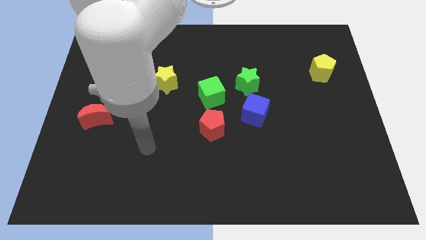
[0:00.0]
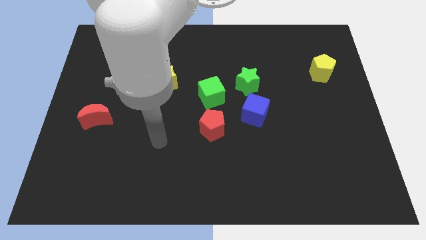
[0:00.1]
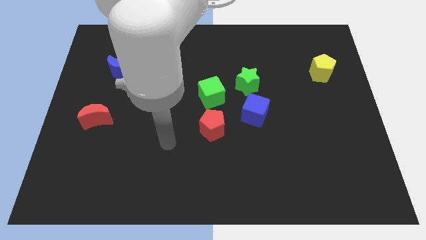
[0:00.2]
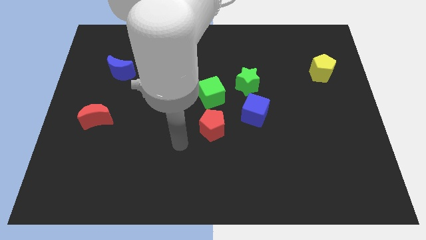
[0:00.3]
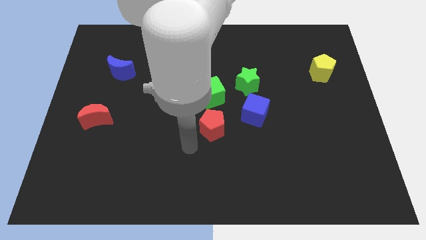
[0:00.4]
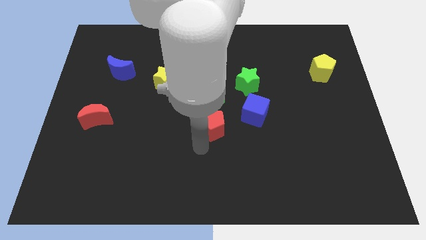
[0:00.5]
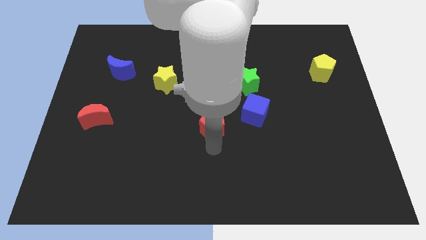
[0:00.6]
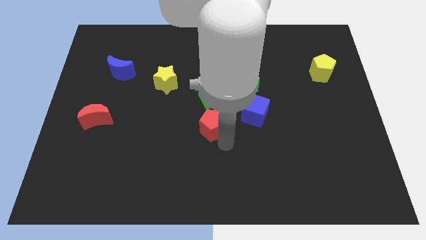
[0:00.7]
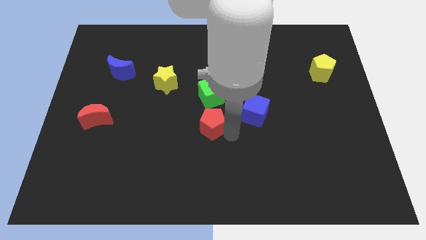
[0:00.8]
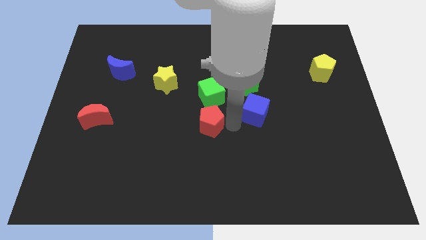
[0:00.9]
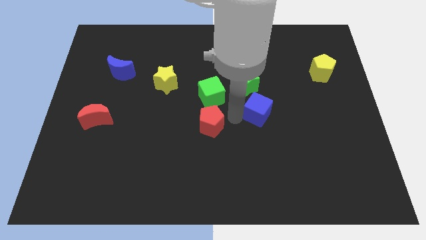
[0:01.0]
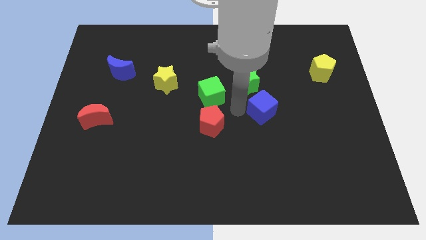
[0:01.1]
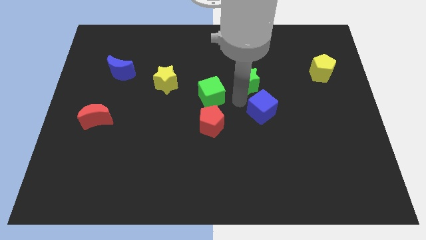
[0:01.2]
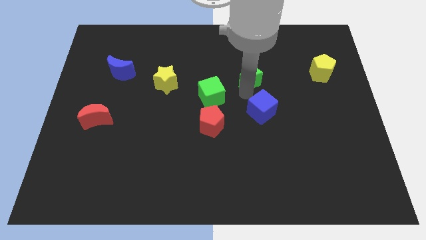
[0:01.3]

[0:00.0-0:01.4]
separate the blue cube from the green star

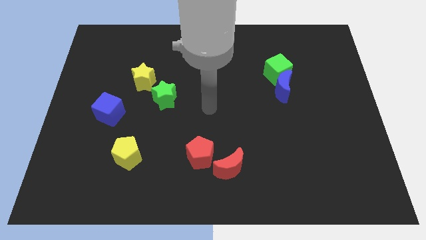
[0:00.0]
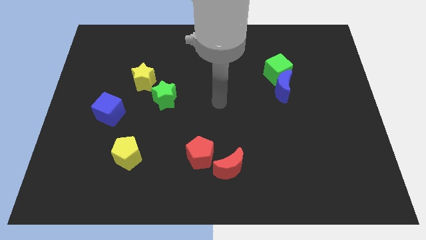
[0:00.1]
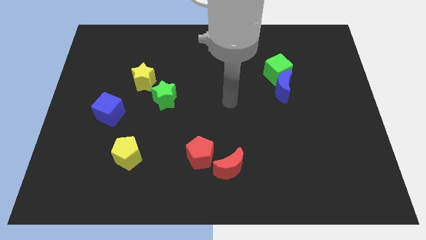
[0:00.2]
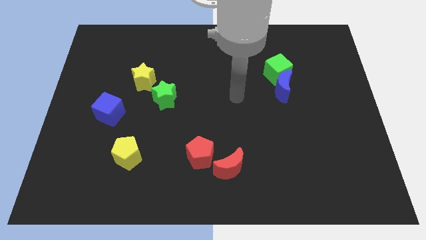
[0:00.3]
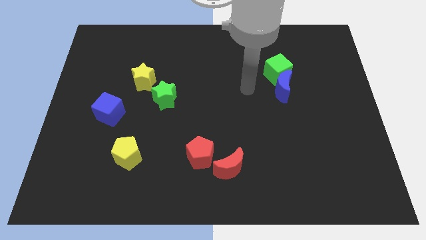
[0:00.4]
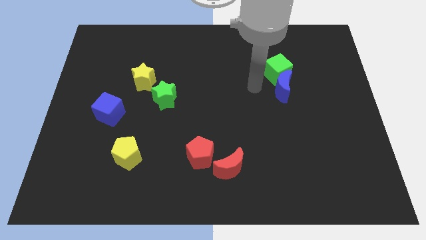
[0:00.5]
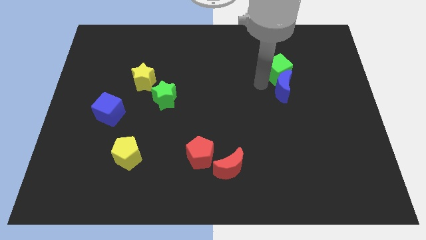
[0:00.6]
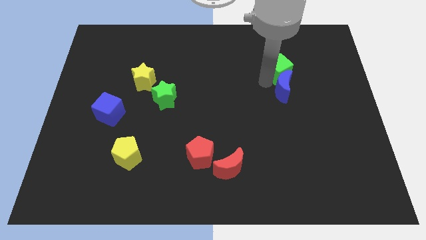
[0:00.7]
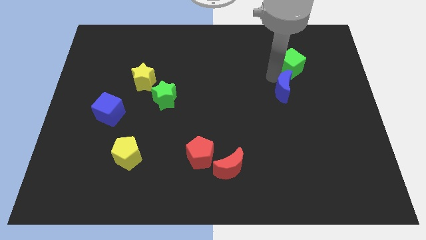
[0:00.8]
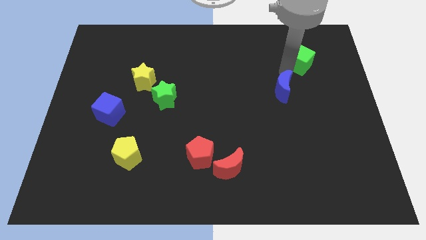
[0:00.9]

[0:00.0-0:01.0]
move the blue moon away from the green cube

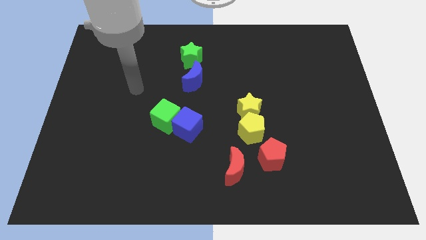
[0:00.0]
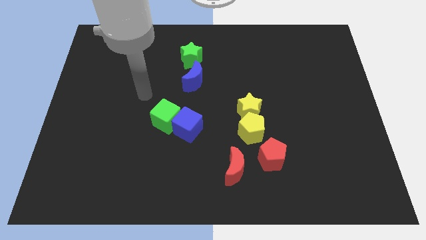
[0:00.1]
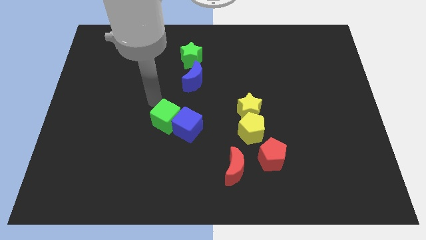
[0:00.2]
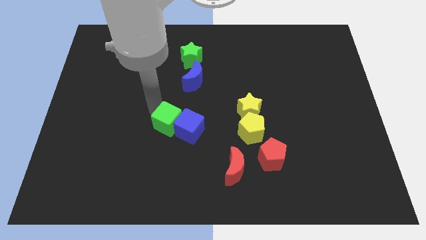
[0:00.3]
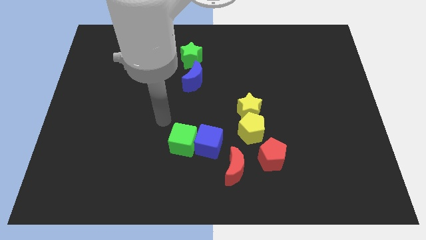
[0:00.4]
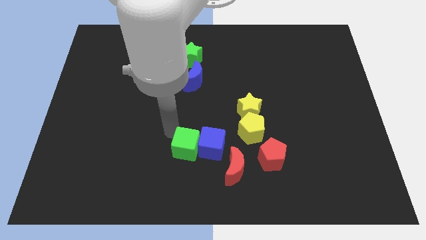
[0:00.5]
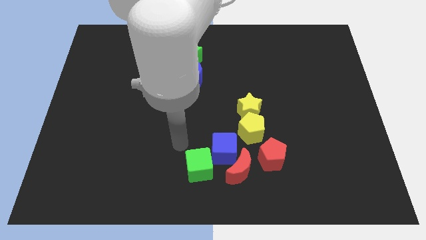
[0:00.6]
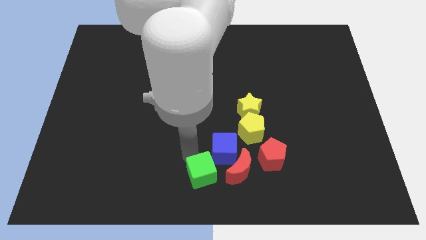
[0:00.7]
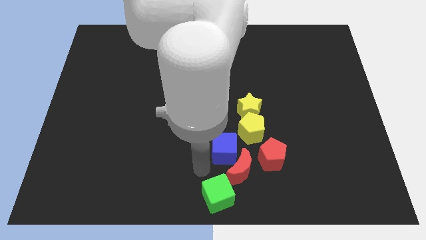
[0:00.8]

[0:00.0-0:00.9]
pull the blue cube apart from the green cube

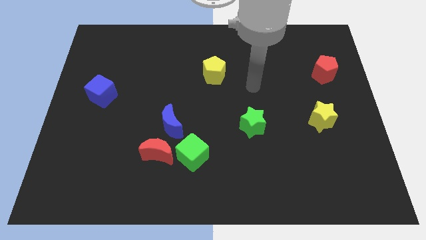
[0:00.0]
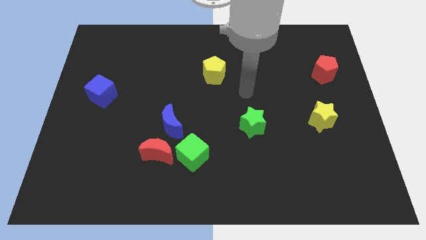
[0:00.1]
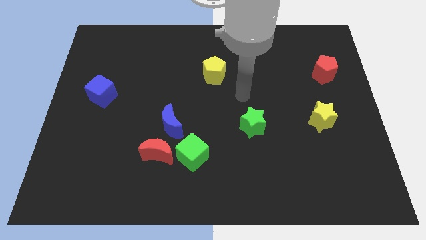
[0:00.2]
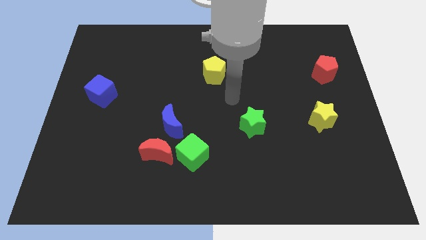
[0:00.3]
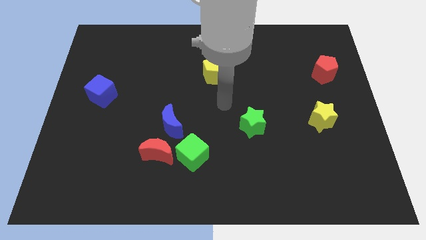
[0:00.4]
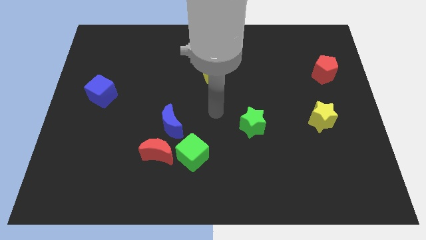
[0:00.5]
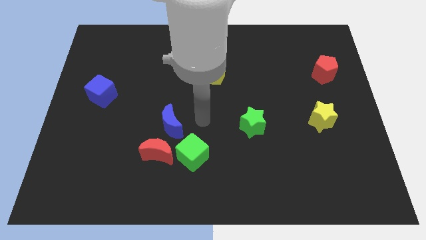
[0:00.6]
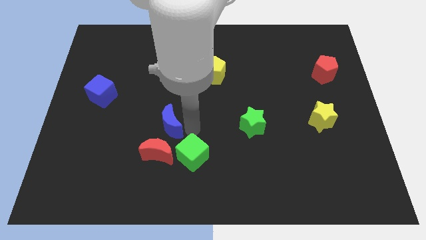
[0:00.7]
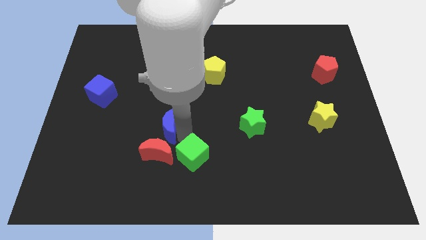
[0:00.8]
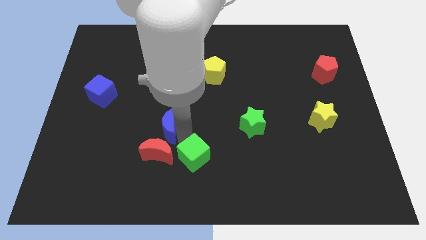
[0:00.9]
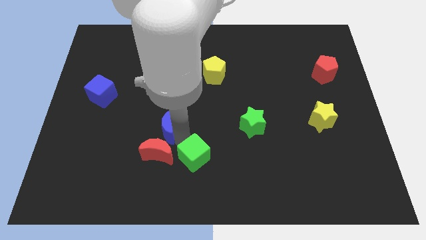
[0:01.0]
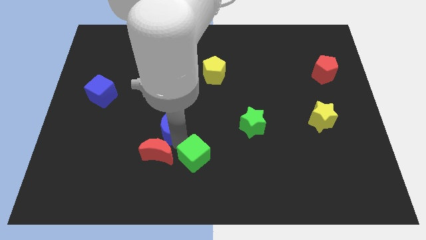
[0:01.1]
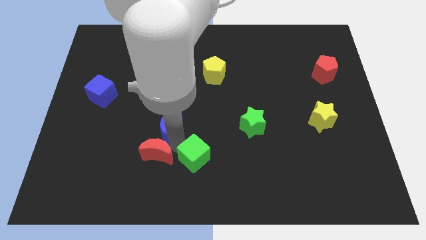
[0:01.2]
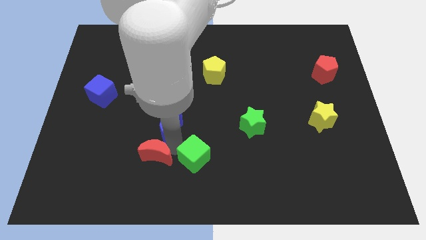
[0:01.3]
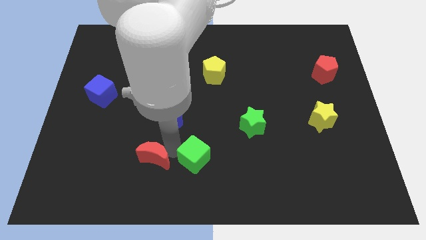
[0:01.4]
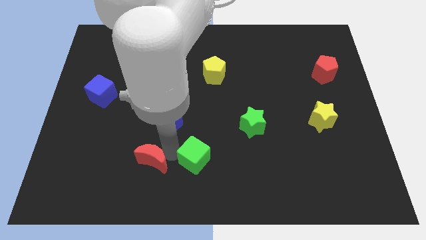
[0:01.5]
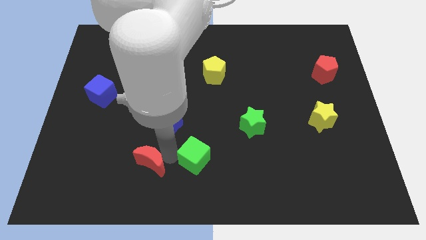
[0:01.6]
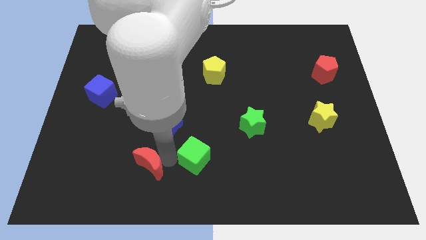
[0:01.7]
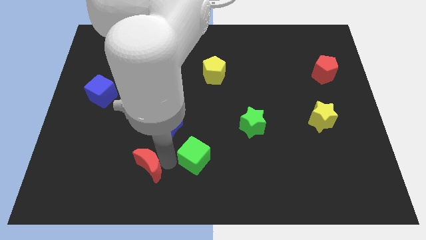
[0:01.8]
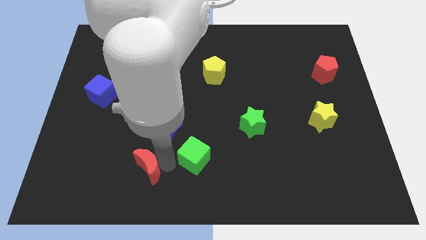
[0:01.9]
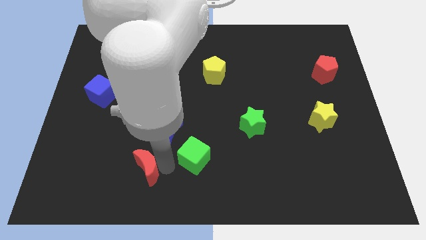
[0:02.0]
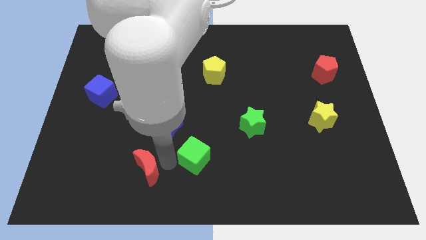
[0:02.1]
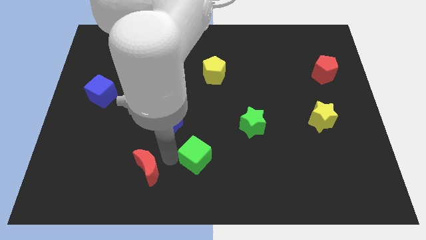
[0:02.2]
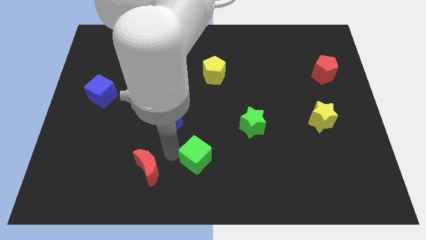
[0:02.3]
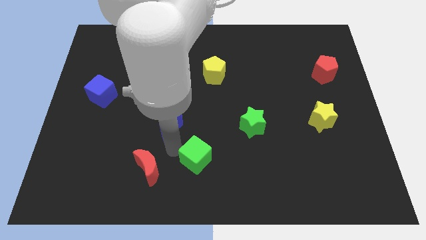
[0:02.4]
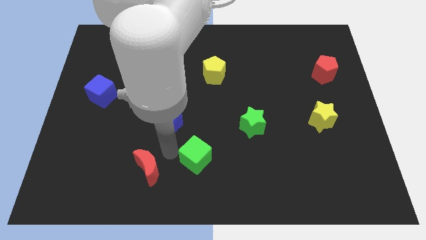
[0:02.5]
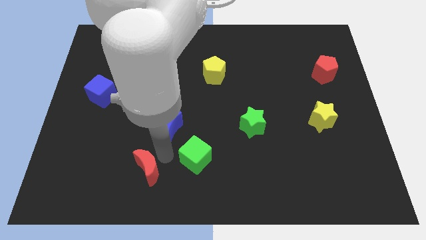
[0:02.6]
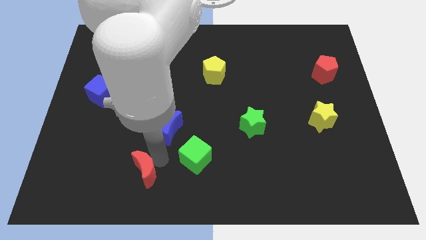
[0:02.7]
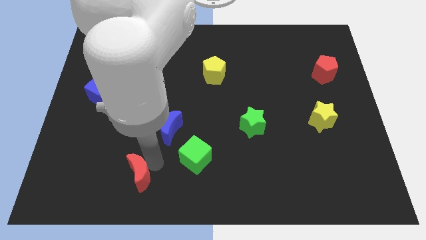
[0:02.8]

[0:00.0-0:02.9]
pull the red moon apart from the green cube and blue moon

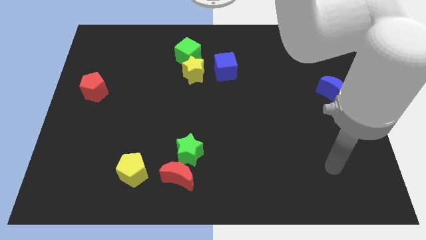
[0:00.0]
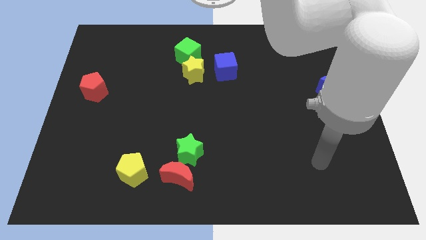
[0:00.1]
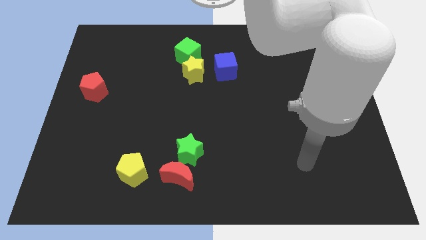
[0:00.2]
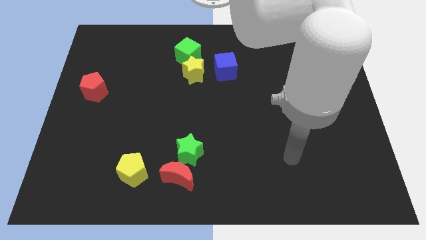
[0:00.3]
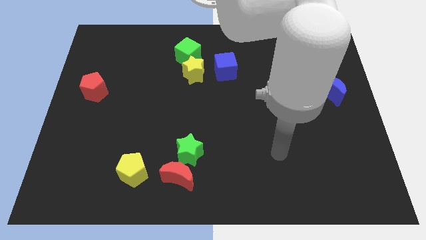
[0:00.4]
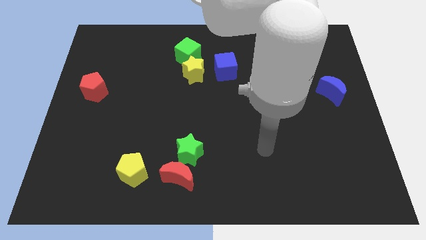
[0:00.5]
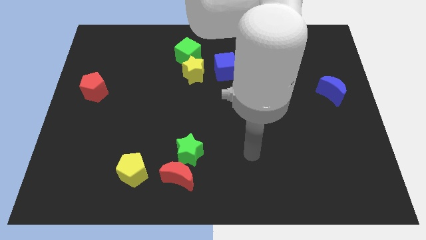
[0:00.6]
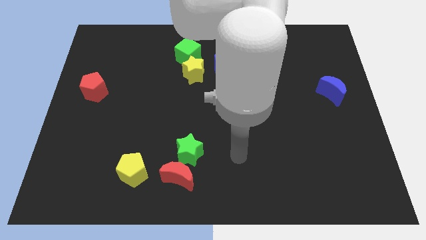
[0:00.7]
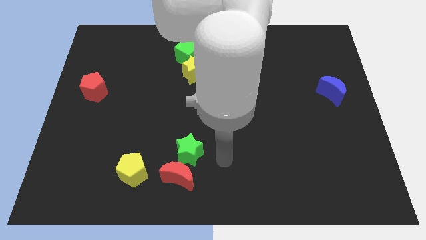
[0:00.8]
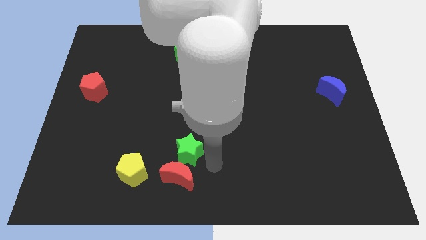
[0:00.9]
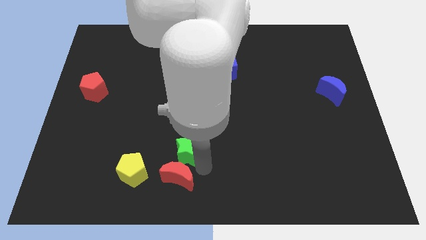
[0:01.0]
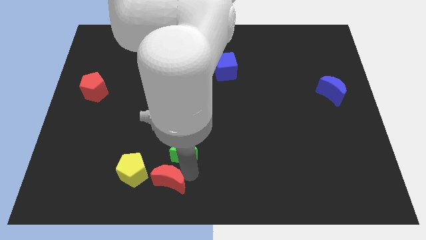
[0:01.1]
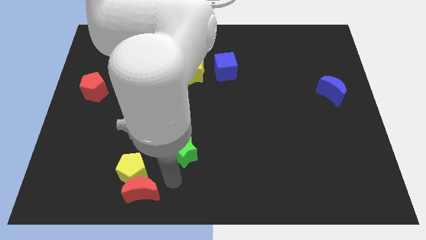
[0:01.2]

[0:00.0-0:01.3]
move the green star away from the red moon

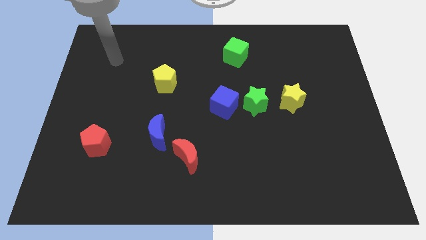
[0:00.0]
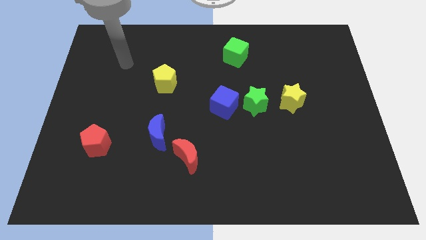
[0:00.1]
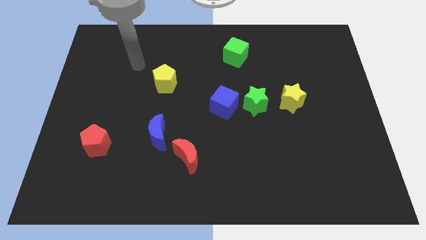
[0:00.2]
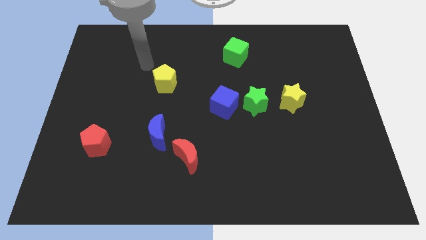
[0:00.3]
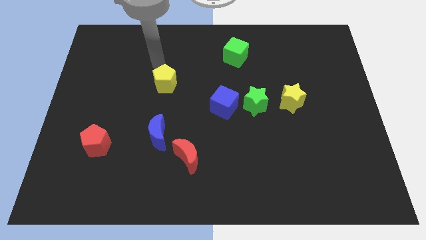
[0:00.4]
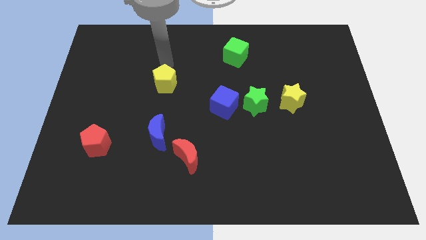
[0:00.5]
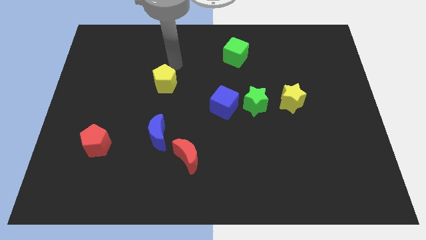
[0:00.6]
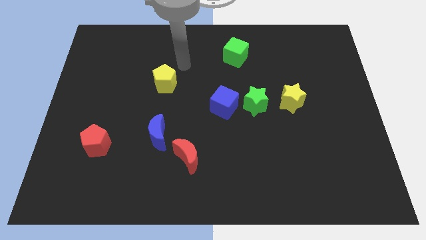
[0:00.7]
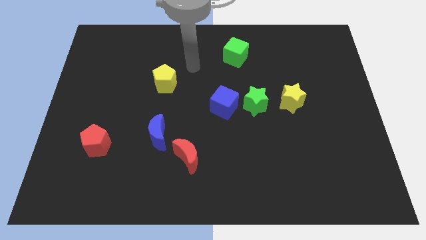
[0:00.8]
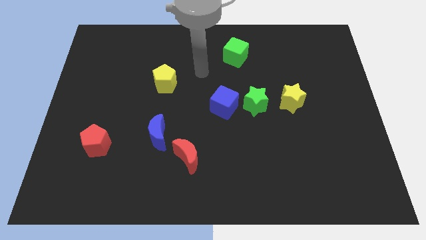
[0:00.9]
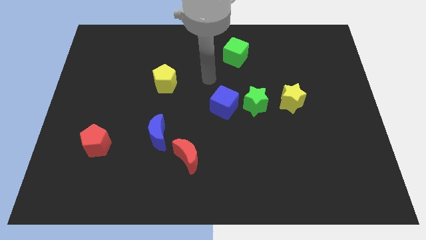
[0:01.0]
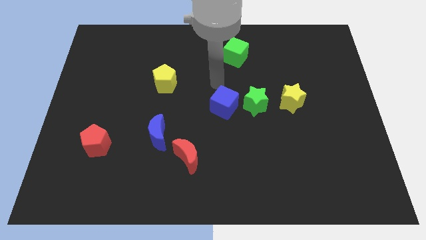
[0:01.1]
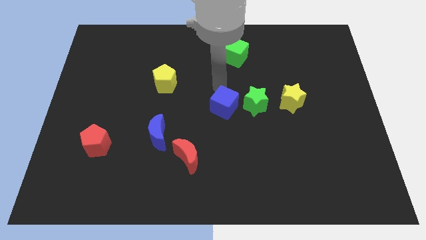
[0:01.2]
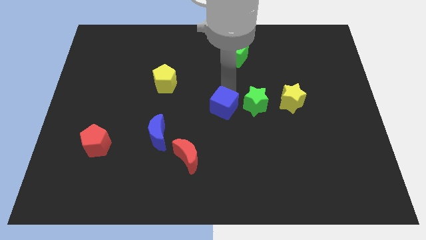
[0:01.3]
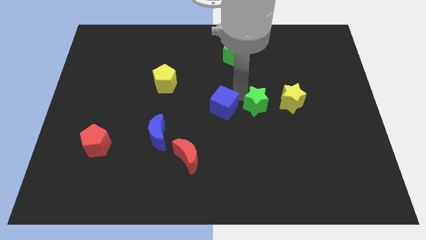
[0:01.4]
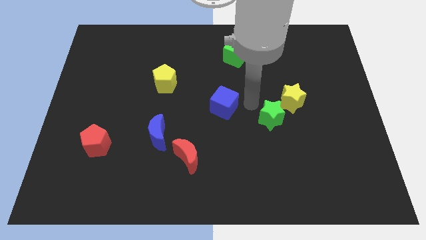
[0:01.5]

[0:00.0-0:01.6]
pull the blue cube apart from the green star
